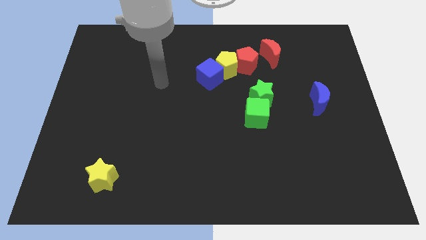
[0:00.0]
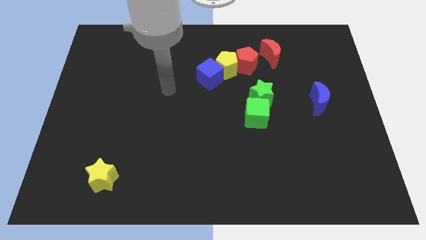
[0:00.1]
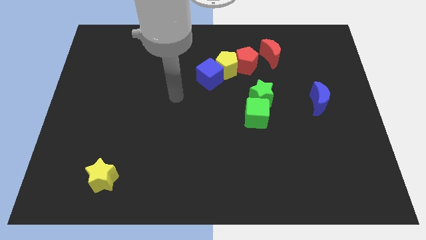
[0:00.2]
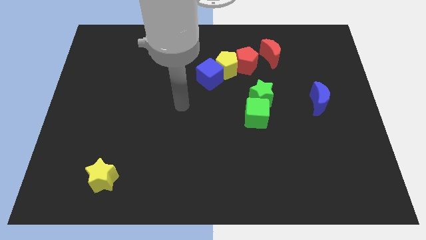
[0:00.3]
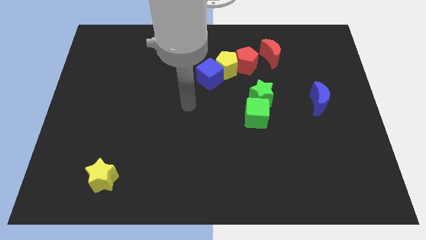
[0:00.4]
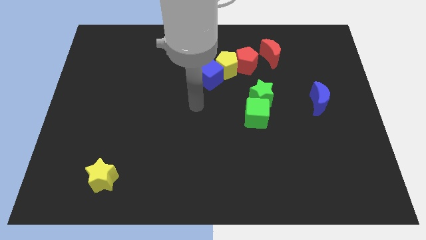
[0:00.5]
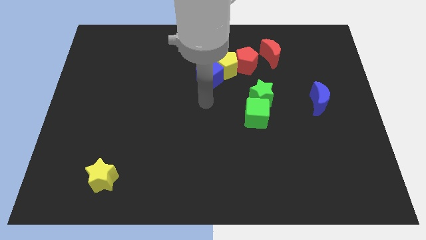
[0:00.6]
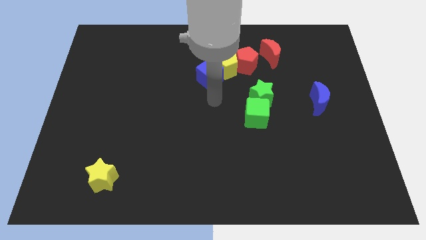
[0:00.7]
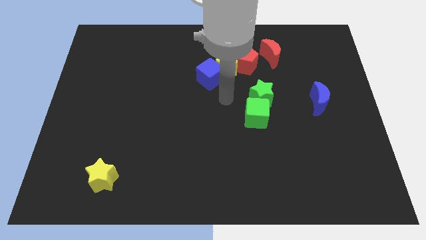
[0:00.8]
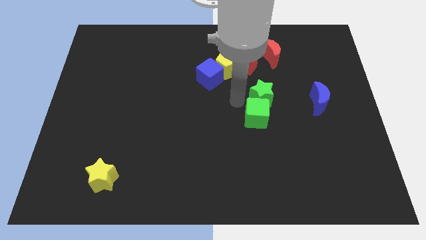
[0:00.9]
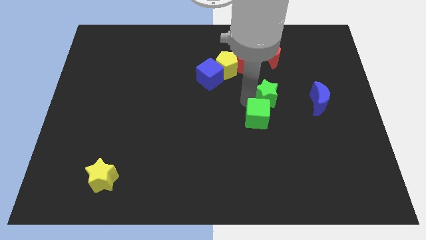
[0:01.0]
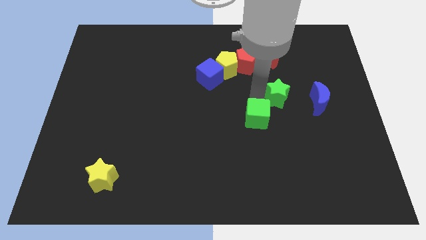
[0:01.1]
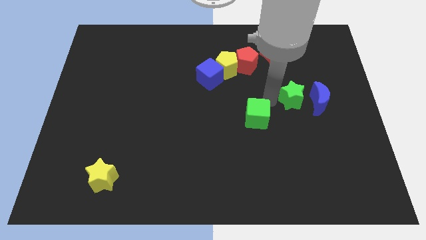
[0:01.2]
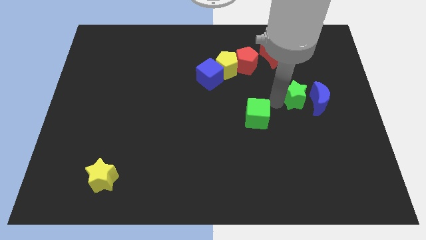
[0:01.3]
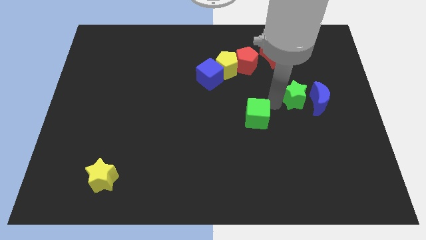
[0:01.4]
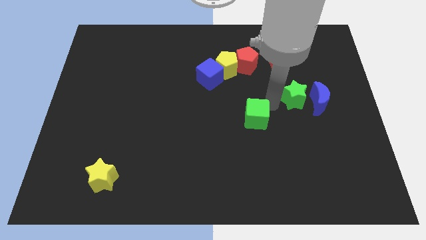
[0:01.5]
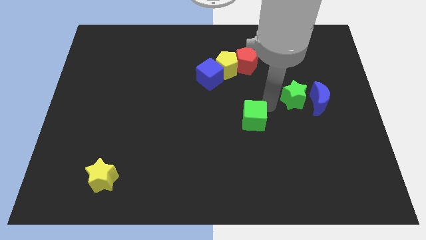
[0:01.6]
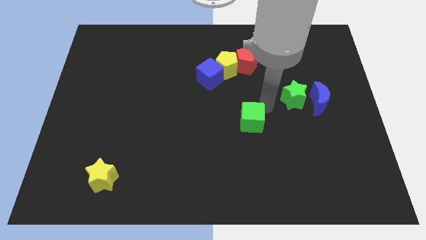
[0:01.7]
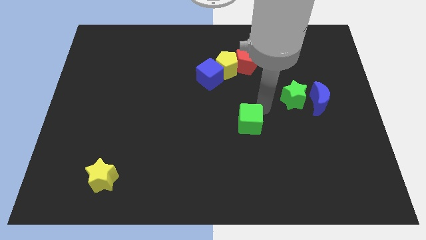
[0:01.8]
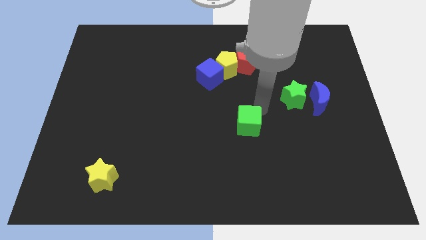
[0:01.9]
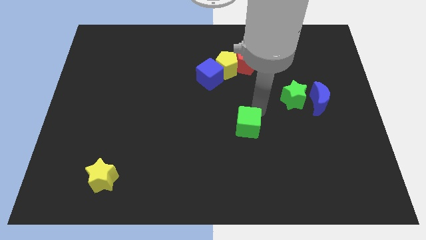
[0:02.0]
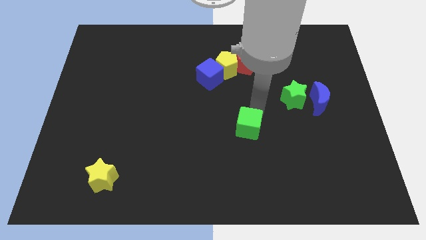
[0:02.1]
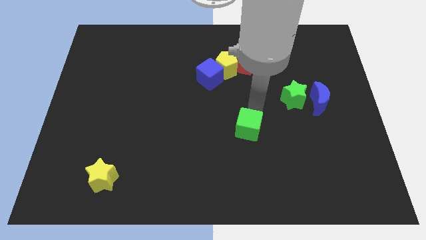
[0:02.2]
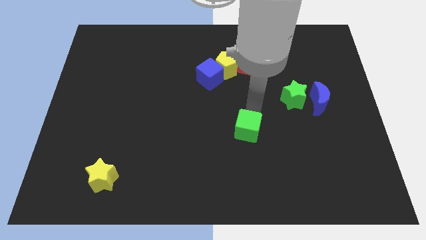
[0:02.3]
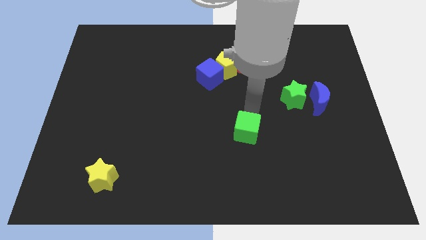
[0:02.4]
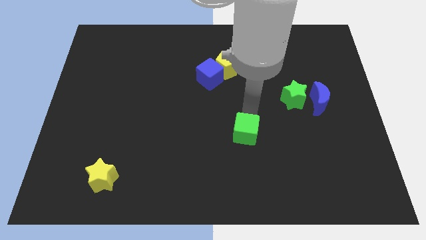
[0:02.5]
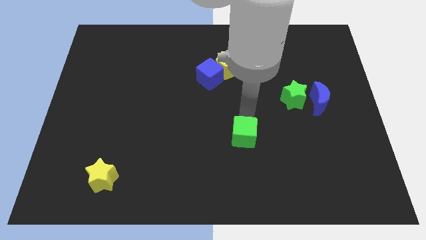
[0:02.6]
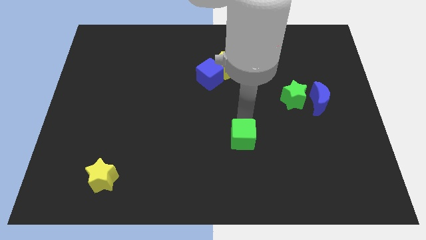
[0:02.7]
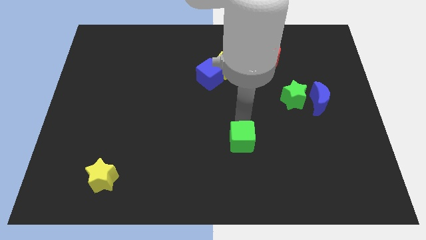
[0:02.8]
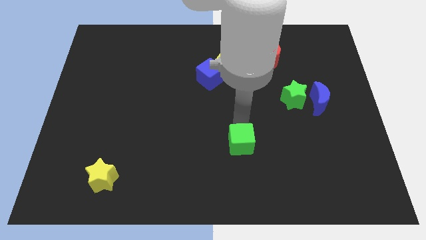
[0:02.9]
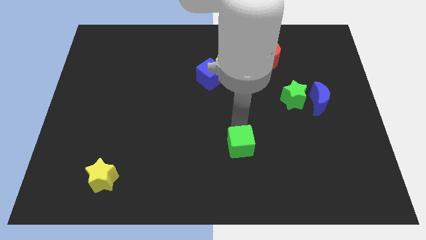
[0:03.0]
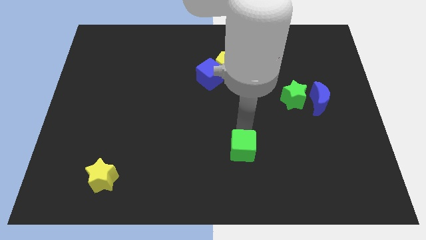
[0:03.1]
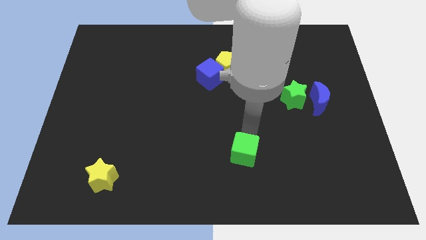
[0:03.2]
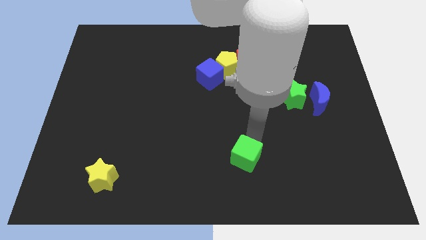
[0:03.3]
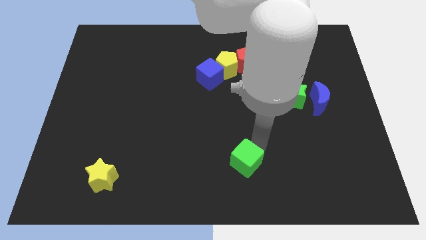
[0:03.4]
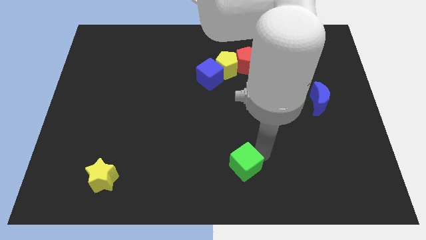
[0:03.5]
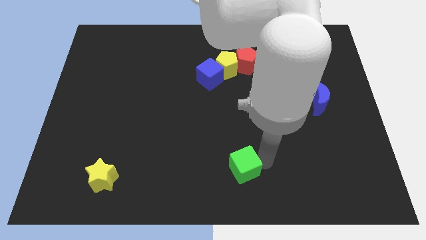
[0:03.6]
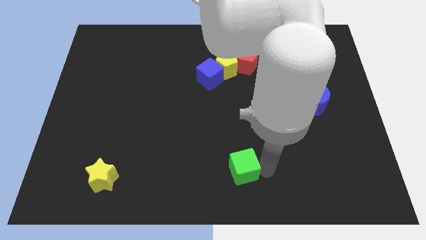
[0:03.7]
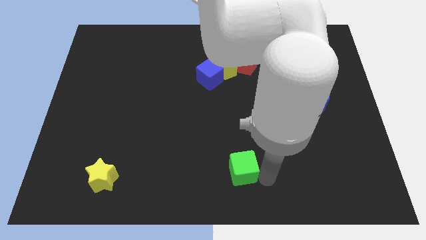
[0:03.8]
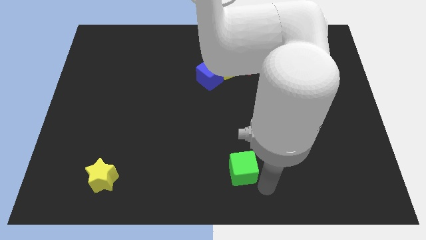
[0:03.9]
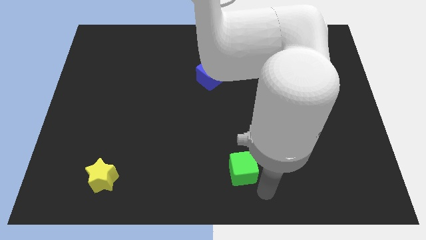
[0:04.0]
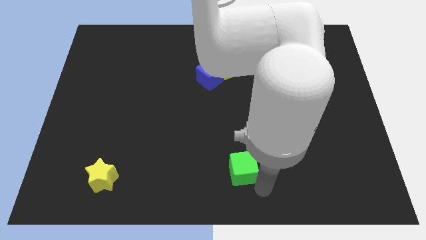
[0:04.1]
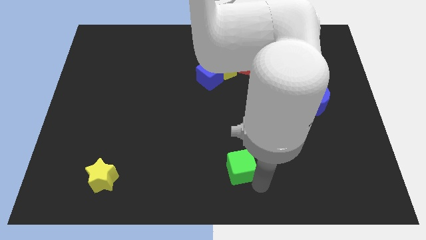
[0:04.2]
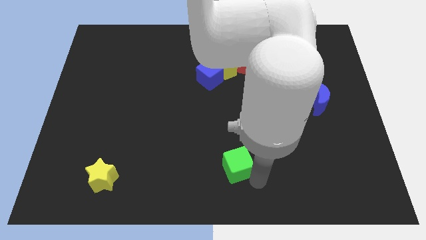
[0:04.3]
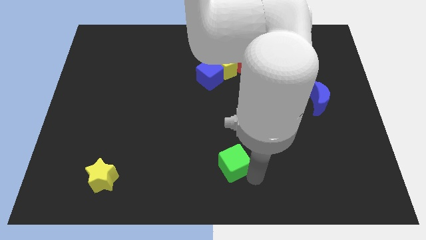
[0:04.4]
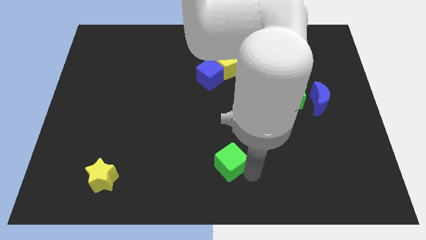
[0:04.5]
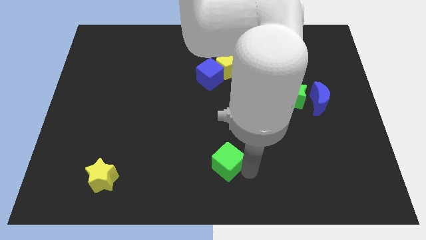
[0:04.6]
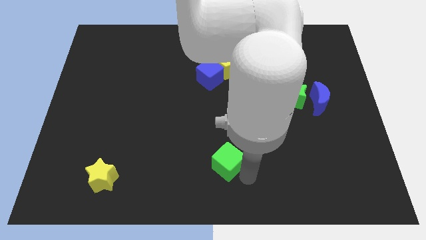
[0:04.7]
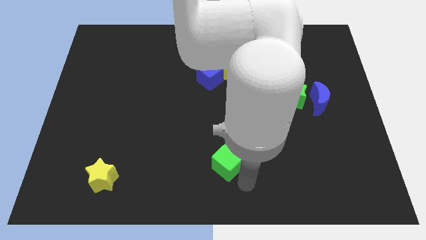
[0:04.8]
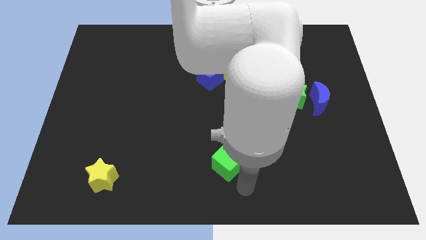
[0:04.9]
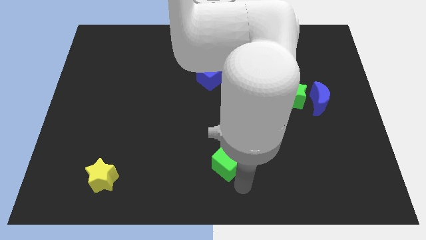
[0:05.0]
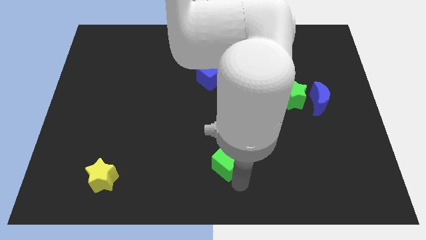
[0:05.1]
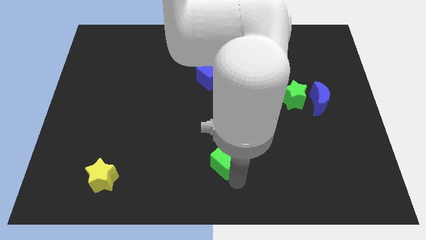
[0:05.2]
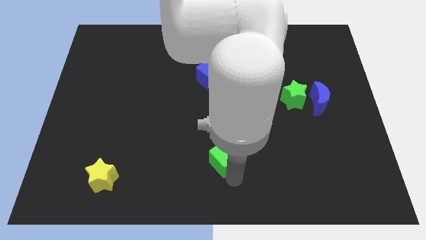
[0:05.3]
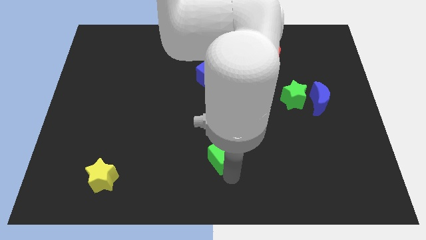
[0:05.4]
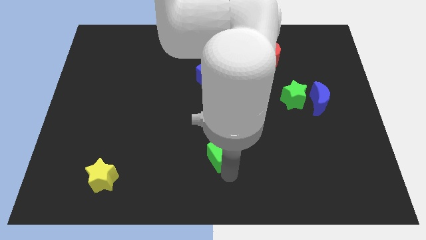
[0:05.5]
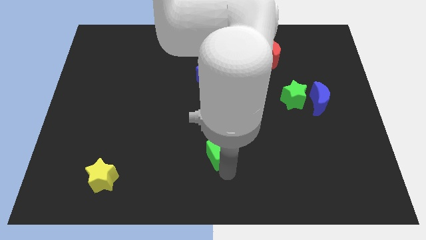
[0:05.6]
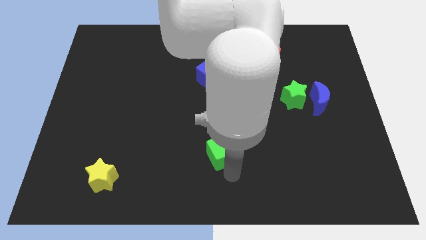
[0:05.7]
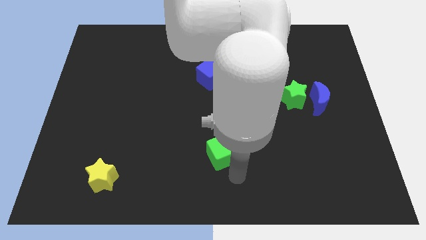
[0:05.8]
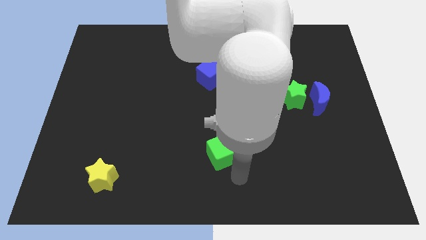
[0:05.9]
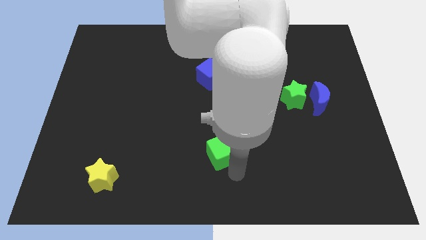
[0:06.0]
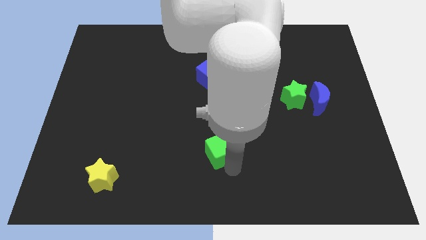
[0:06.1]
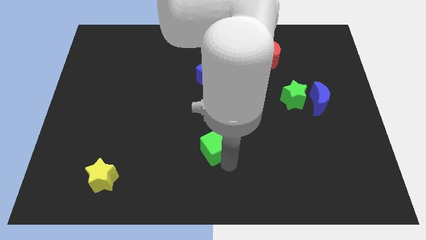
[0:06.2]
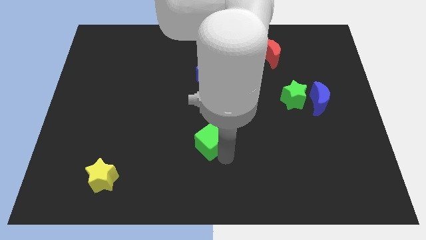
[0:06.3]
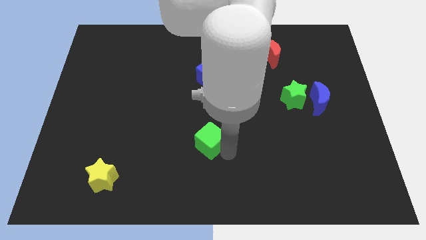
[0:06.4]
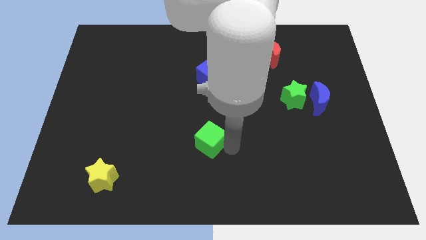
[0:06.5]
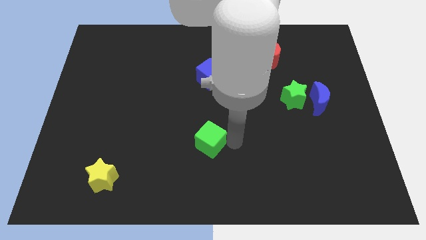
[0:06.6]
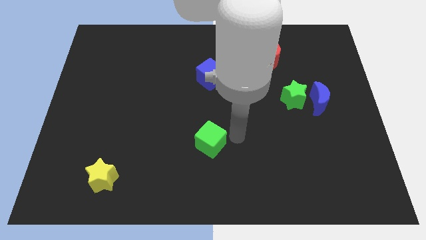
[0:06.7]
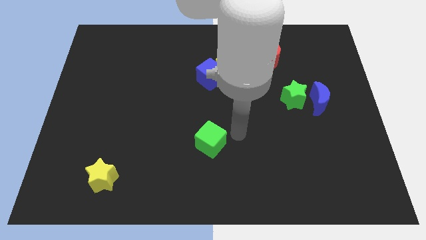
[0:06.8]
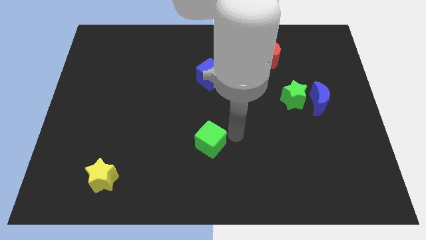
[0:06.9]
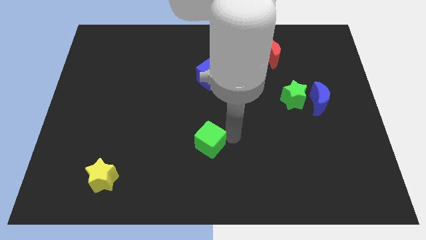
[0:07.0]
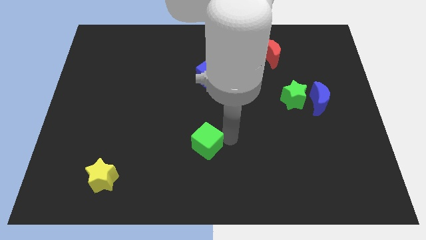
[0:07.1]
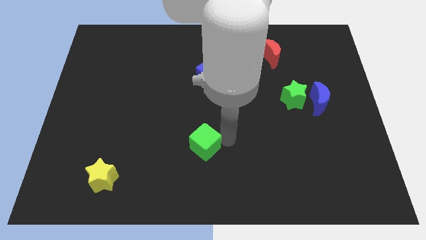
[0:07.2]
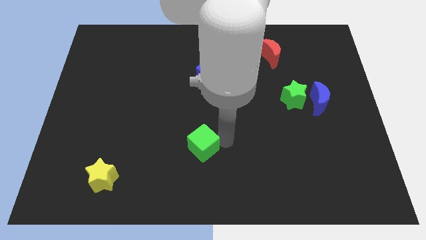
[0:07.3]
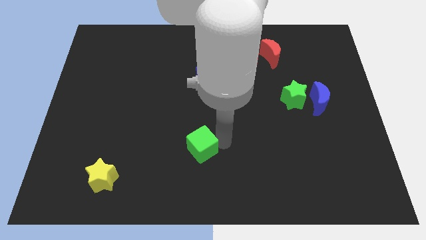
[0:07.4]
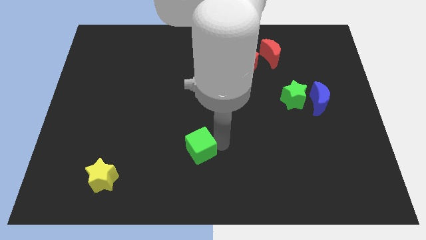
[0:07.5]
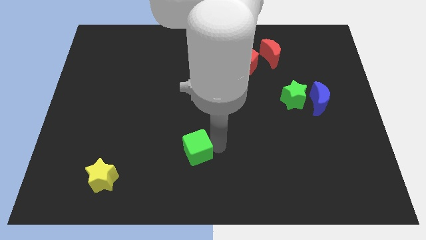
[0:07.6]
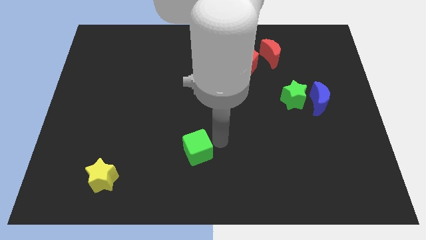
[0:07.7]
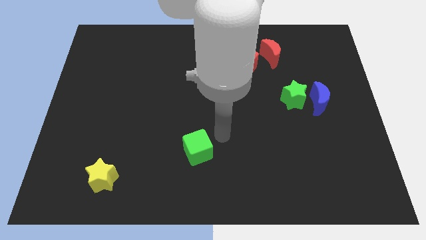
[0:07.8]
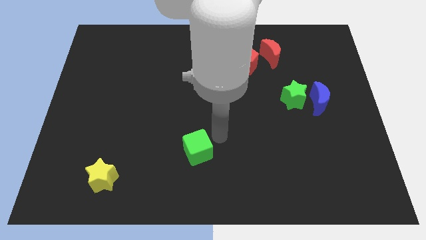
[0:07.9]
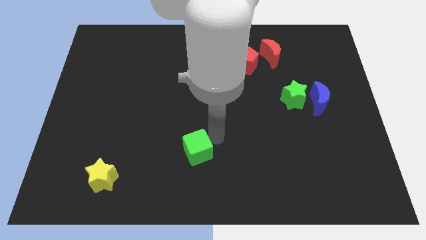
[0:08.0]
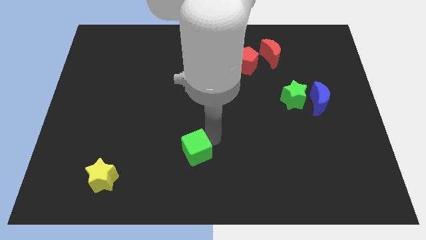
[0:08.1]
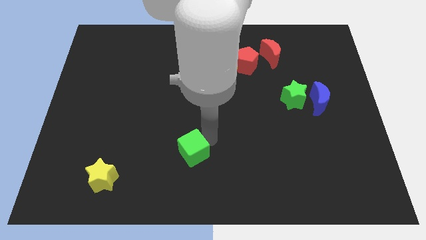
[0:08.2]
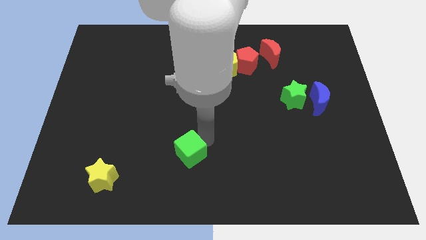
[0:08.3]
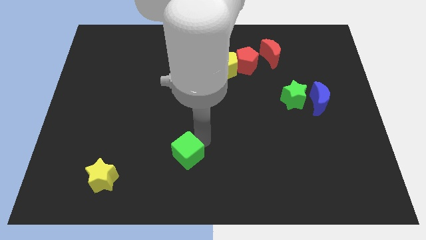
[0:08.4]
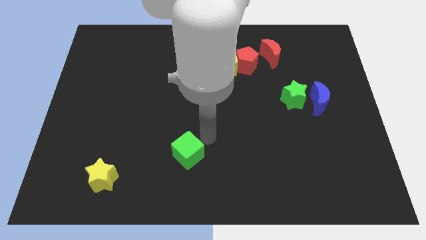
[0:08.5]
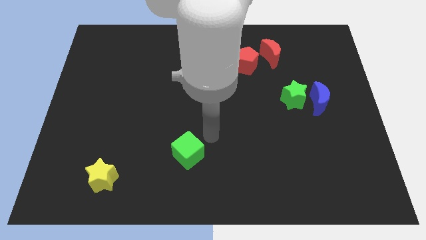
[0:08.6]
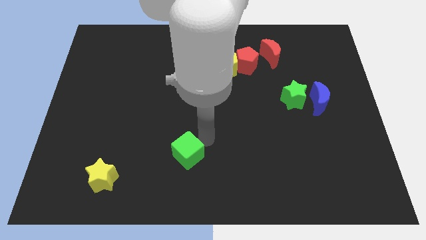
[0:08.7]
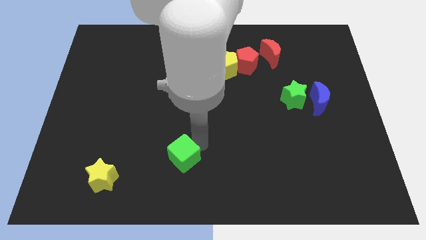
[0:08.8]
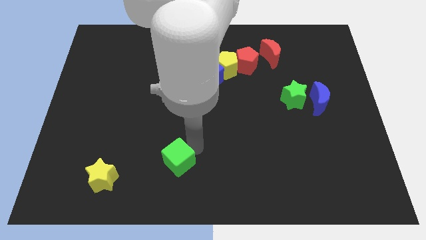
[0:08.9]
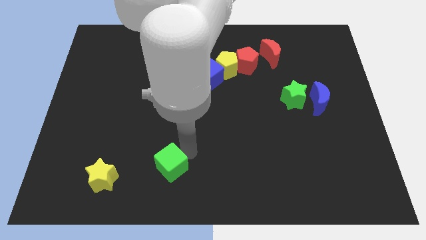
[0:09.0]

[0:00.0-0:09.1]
put the green cube to the right of the yellow star
